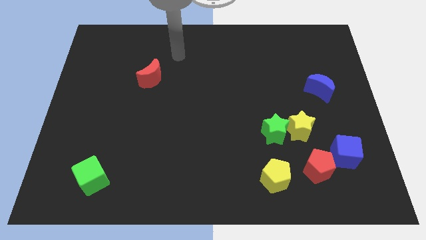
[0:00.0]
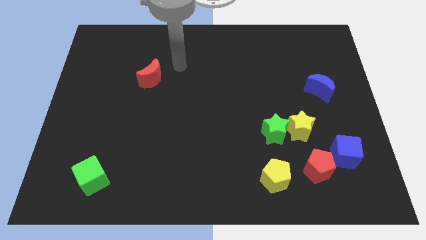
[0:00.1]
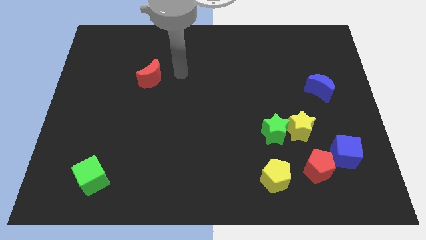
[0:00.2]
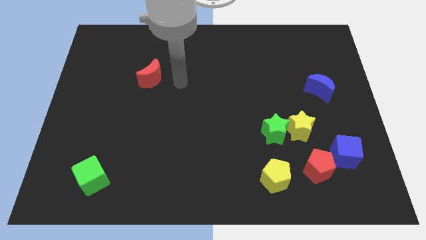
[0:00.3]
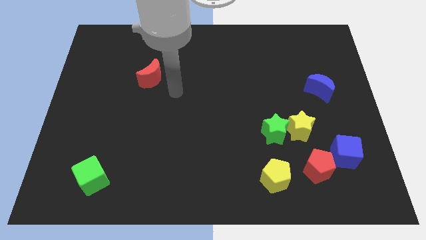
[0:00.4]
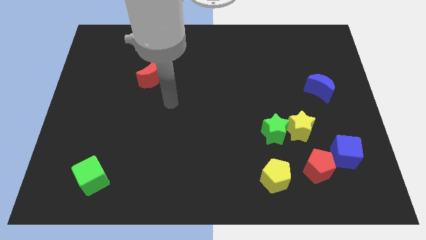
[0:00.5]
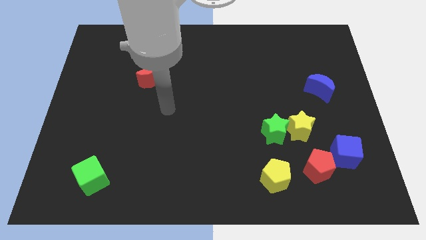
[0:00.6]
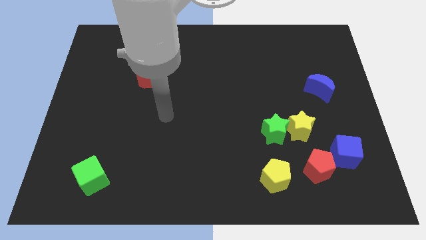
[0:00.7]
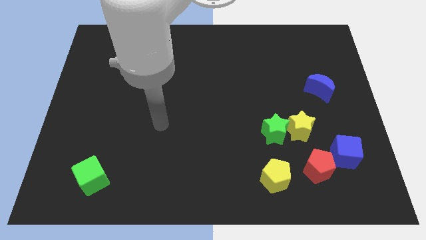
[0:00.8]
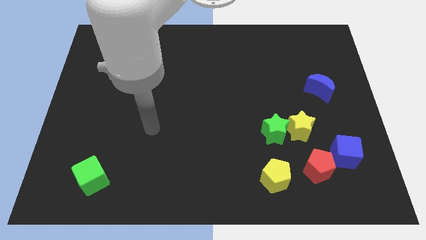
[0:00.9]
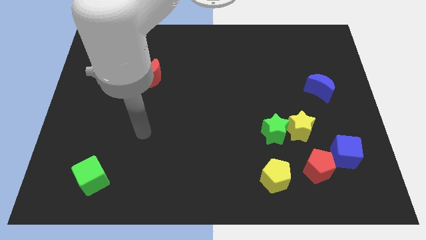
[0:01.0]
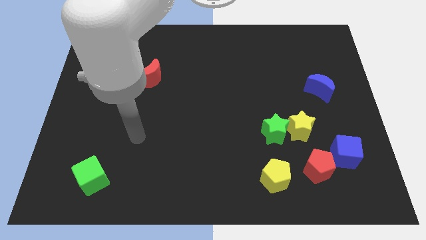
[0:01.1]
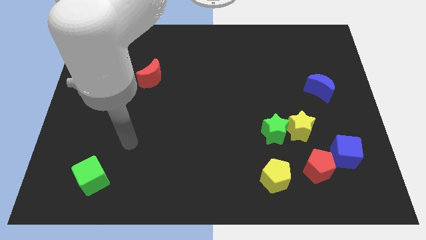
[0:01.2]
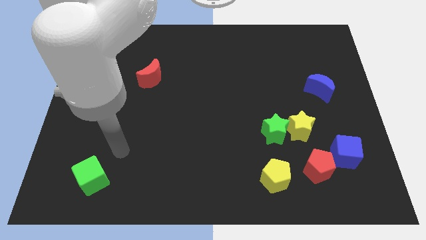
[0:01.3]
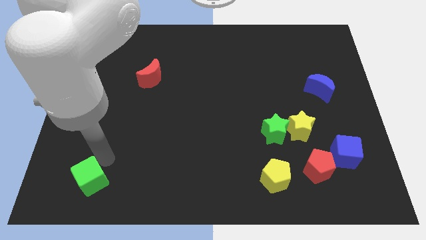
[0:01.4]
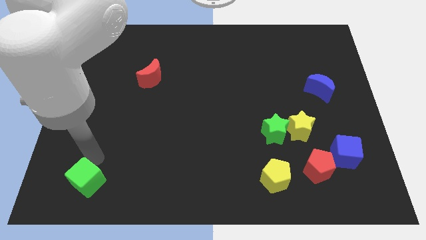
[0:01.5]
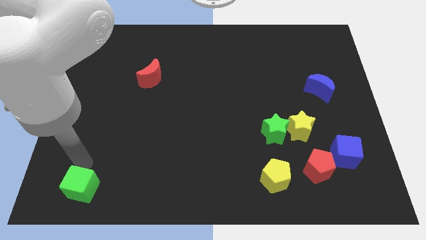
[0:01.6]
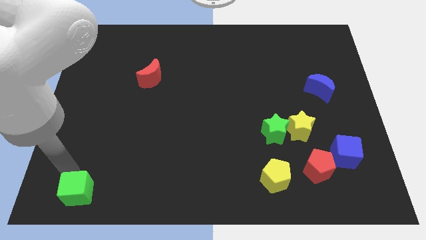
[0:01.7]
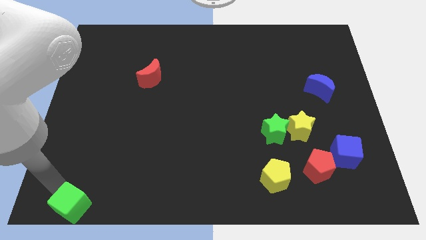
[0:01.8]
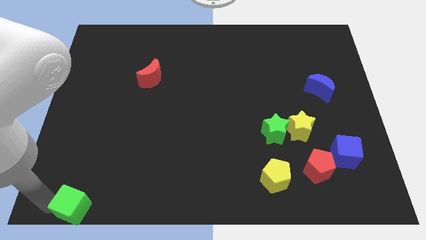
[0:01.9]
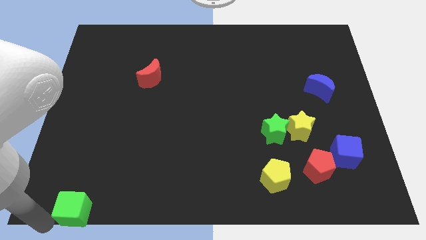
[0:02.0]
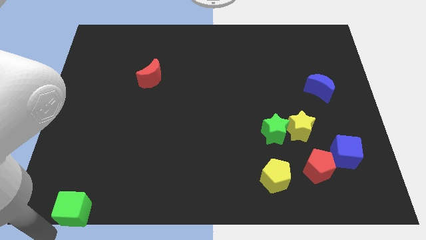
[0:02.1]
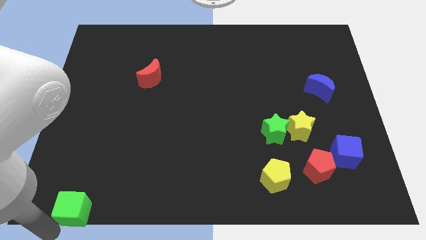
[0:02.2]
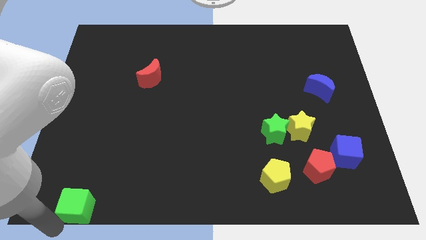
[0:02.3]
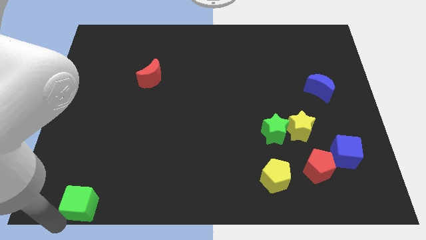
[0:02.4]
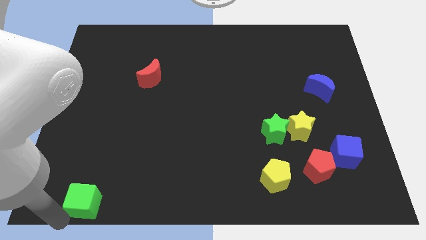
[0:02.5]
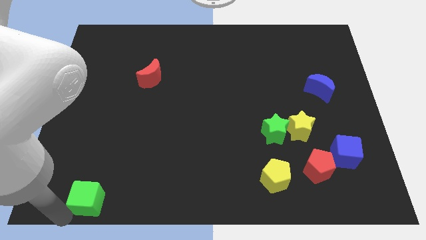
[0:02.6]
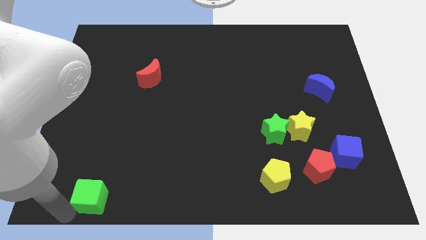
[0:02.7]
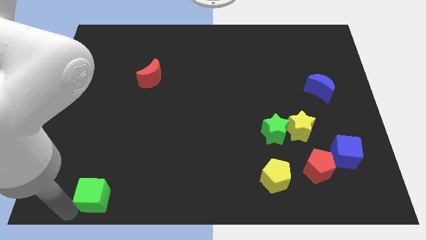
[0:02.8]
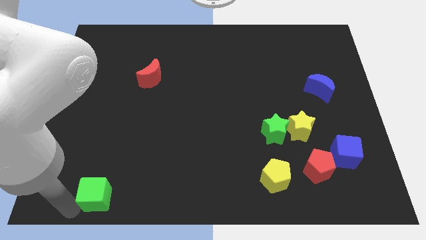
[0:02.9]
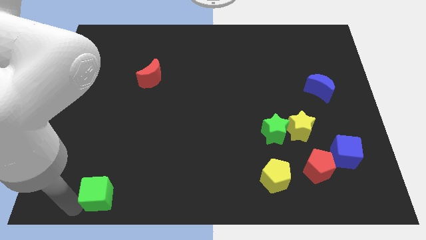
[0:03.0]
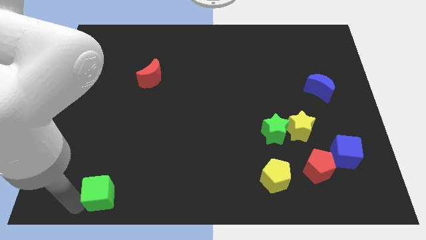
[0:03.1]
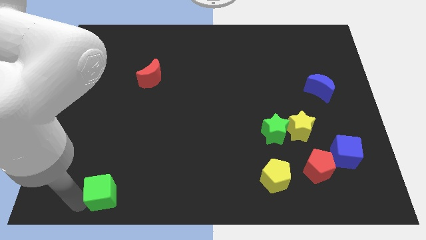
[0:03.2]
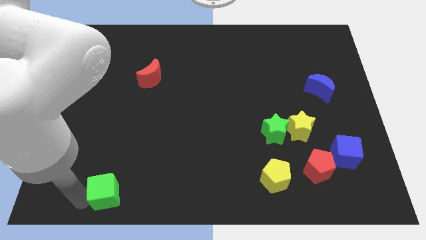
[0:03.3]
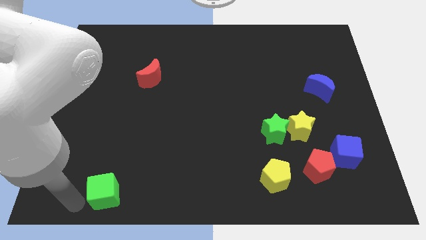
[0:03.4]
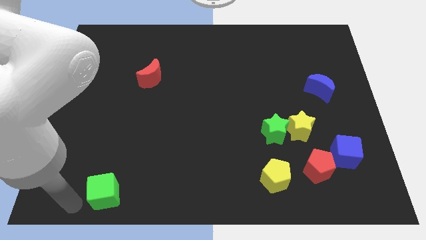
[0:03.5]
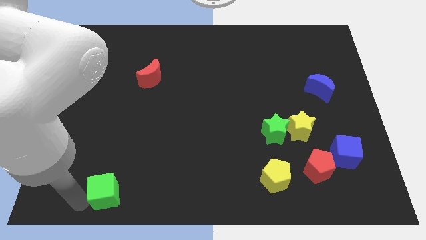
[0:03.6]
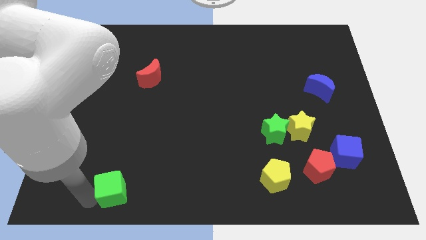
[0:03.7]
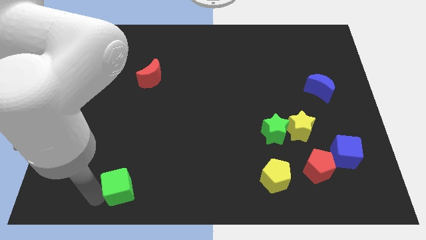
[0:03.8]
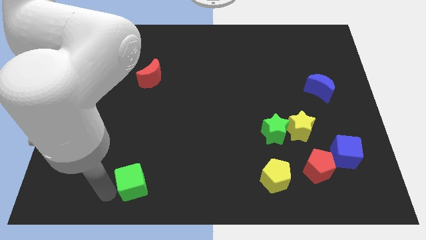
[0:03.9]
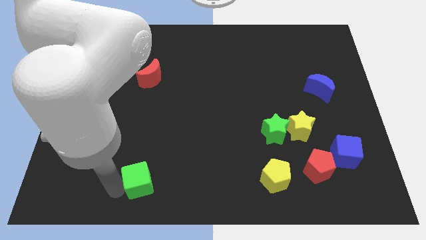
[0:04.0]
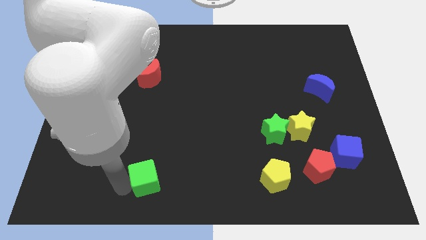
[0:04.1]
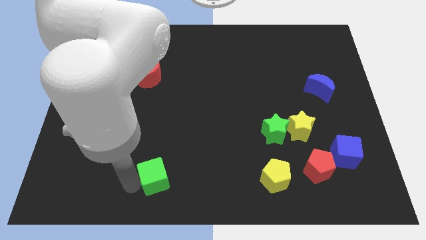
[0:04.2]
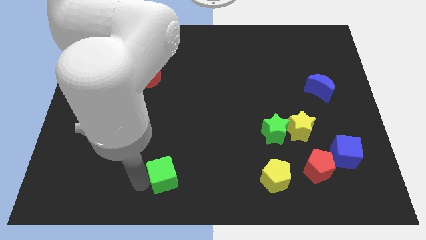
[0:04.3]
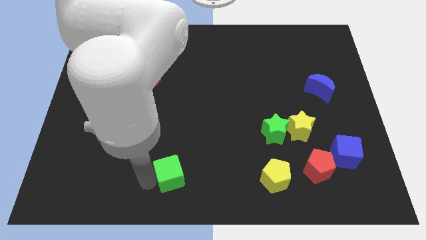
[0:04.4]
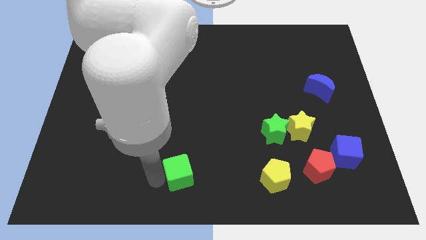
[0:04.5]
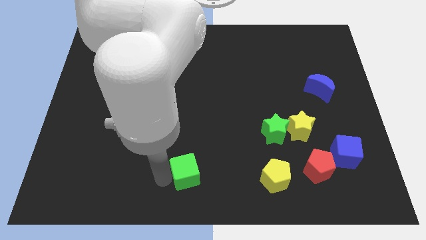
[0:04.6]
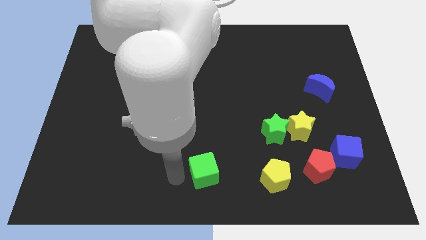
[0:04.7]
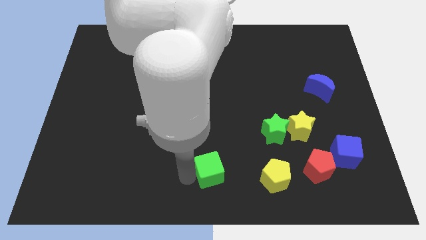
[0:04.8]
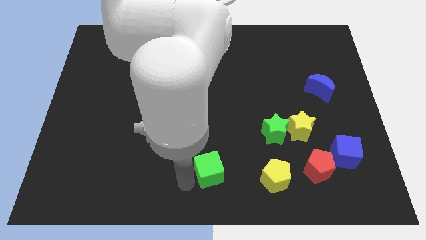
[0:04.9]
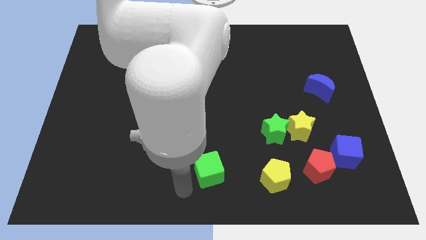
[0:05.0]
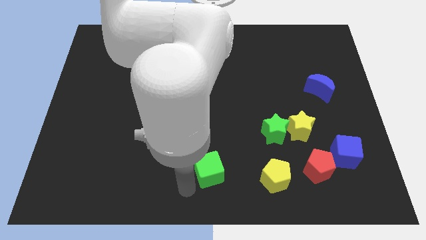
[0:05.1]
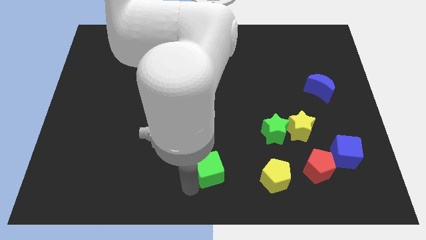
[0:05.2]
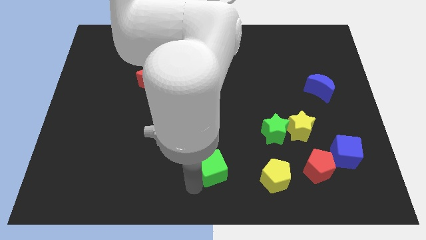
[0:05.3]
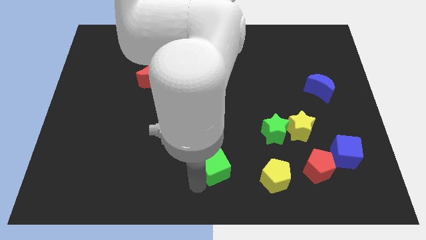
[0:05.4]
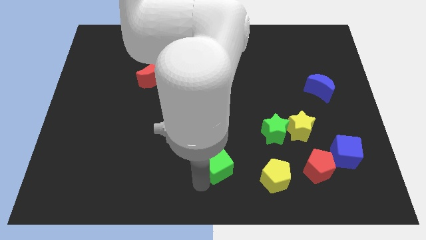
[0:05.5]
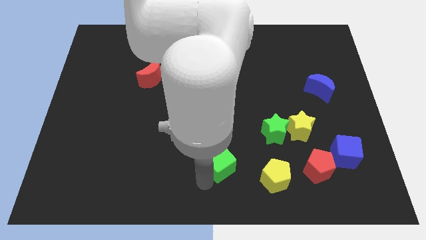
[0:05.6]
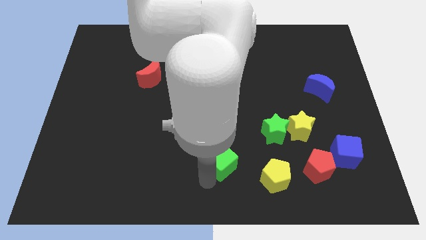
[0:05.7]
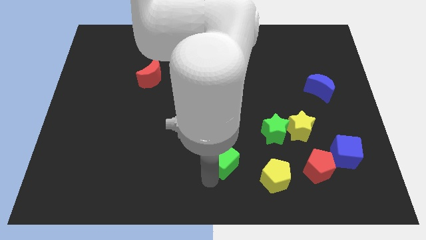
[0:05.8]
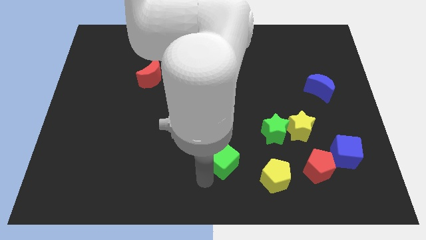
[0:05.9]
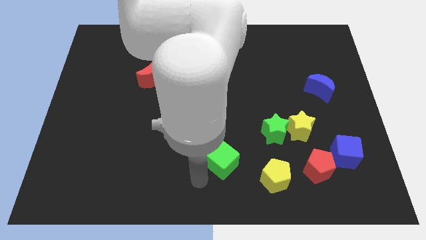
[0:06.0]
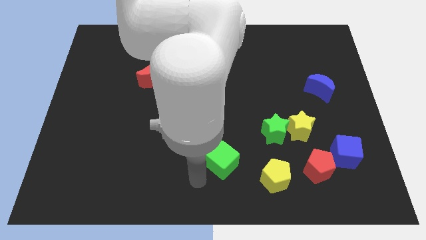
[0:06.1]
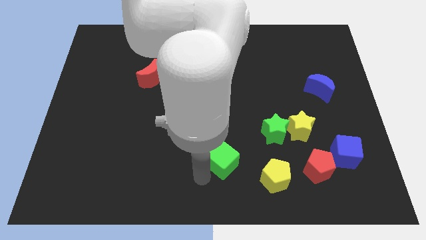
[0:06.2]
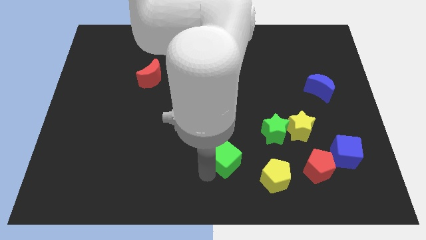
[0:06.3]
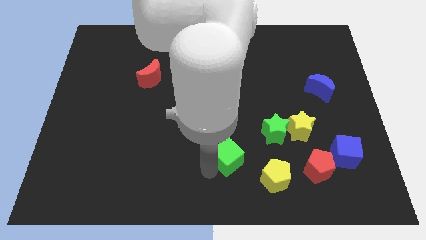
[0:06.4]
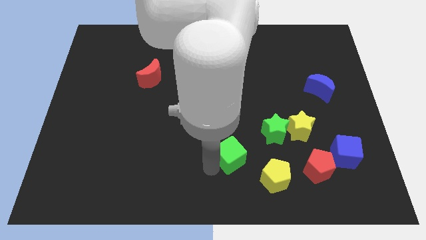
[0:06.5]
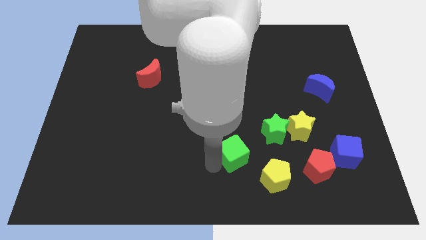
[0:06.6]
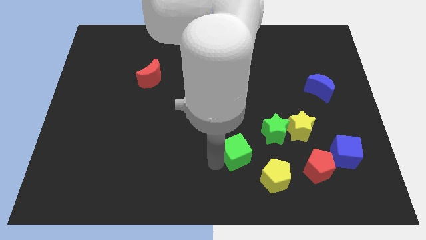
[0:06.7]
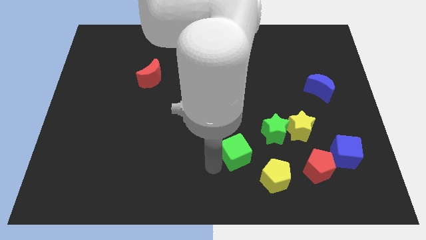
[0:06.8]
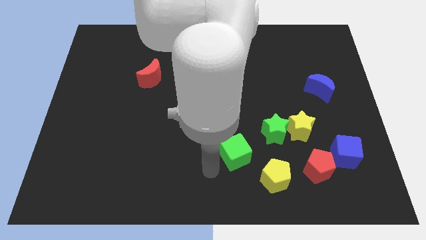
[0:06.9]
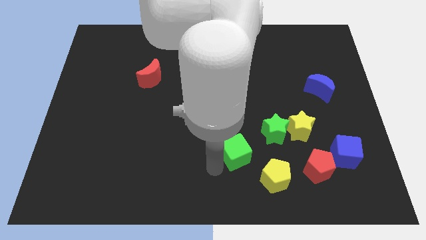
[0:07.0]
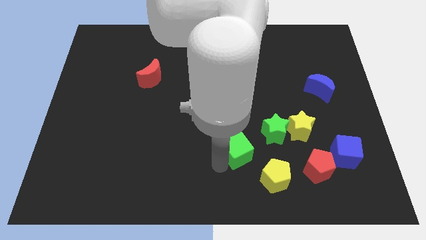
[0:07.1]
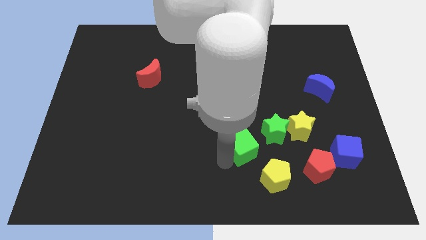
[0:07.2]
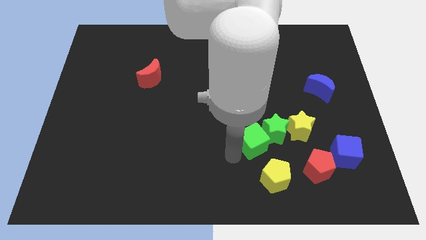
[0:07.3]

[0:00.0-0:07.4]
move the green cube next to the green star
